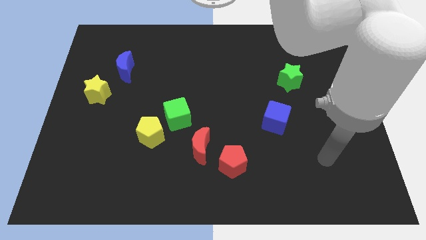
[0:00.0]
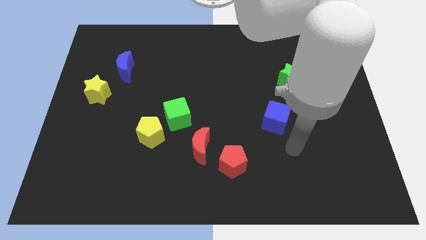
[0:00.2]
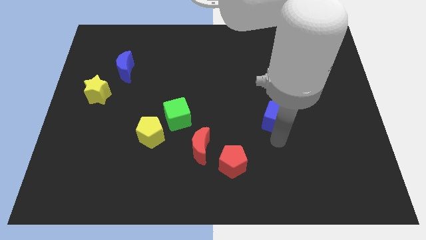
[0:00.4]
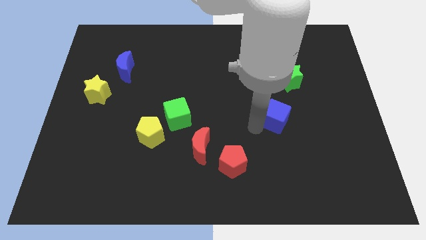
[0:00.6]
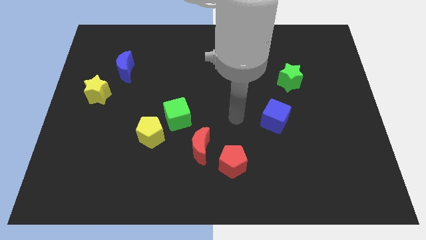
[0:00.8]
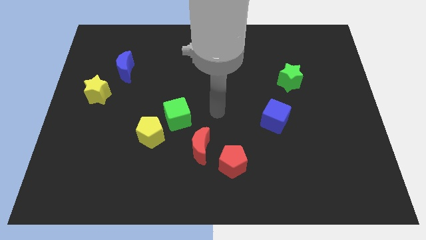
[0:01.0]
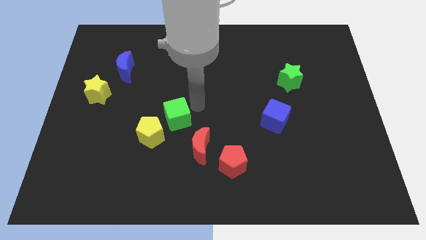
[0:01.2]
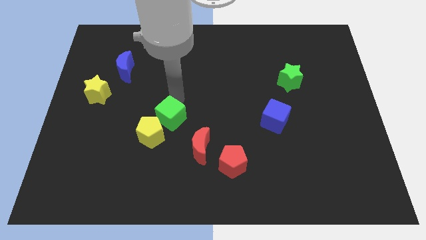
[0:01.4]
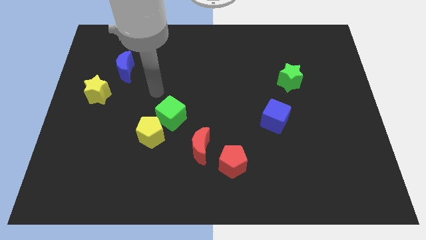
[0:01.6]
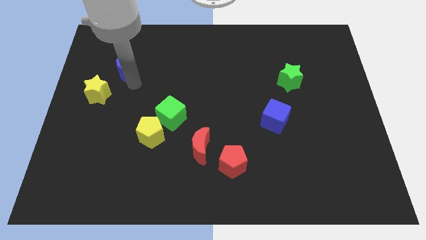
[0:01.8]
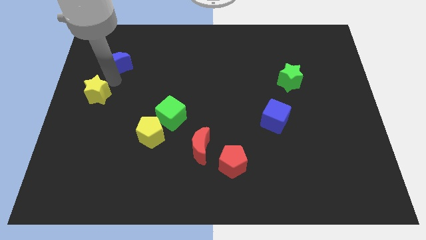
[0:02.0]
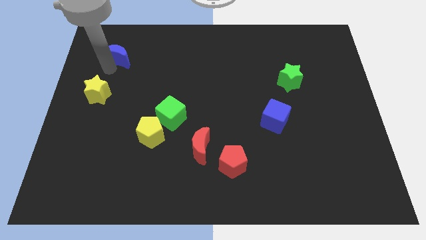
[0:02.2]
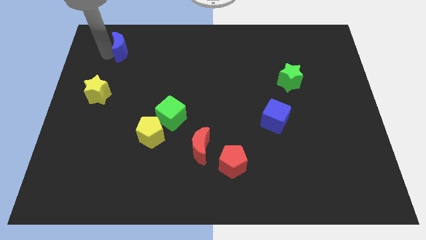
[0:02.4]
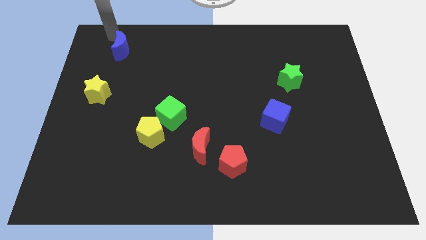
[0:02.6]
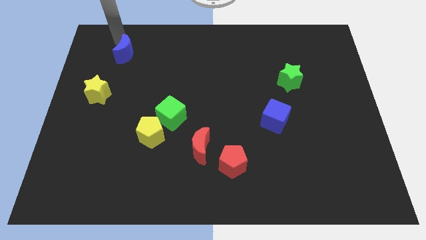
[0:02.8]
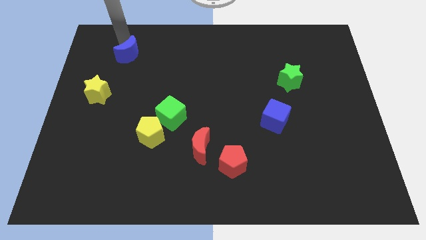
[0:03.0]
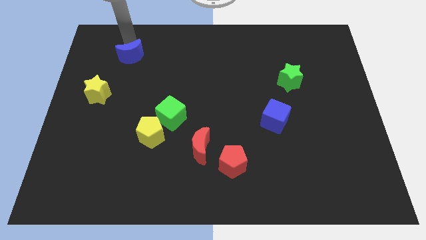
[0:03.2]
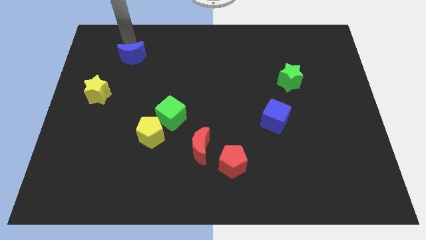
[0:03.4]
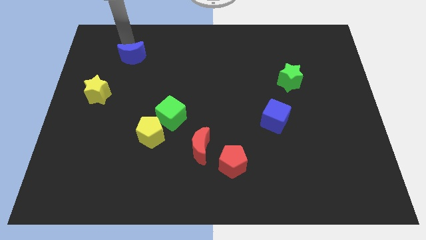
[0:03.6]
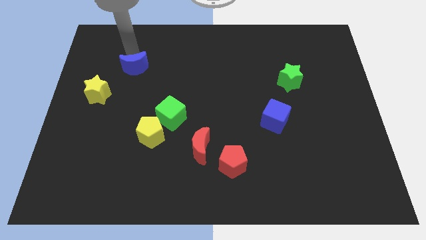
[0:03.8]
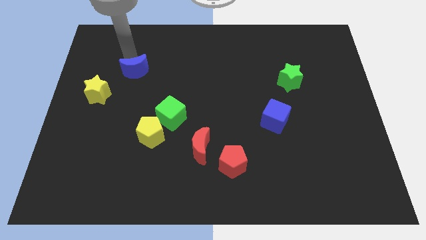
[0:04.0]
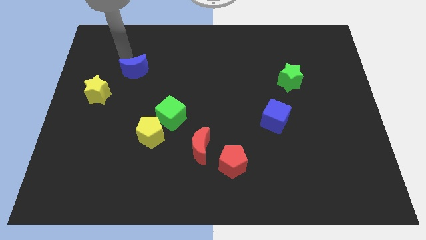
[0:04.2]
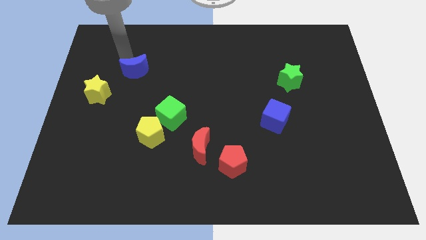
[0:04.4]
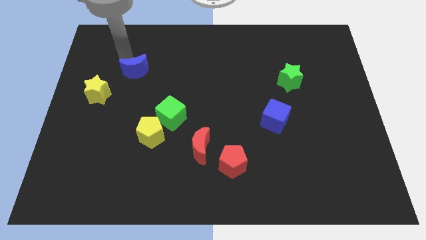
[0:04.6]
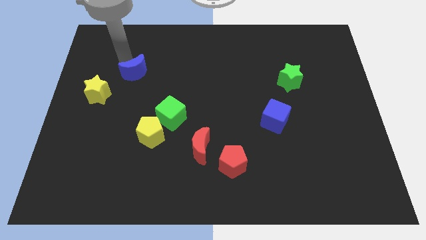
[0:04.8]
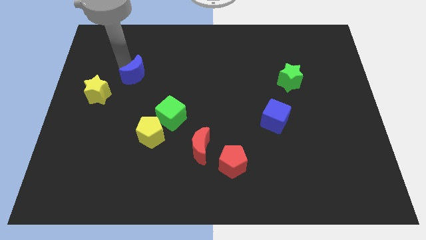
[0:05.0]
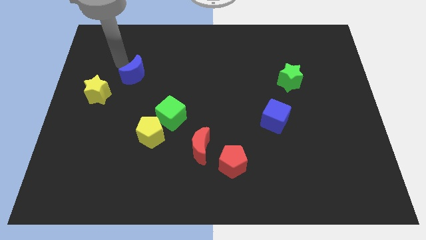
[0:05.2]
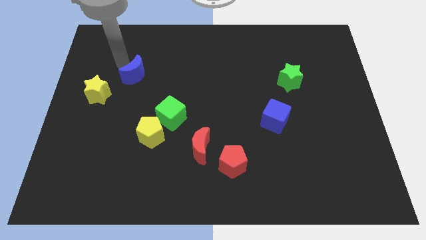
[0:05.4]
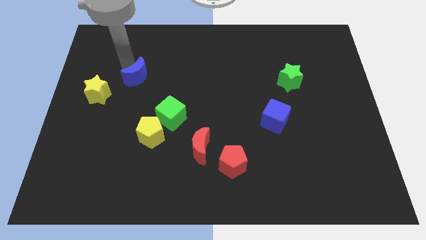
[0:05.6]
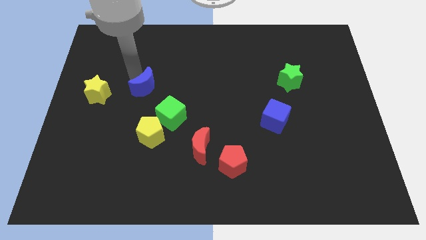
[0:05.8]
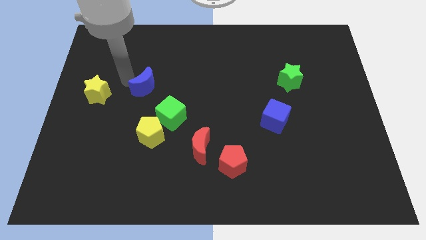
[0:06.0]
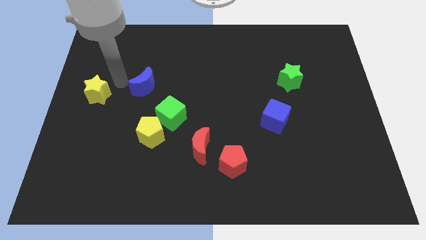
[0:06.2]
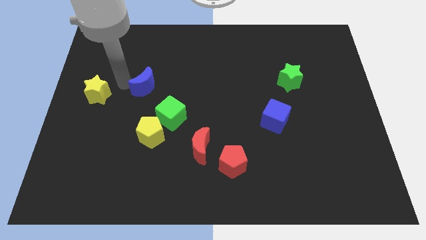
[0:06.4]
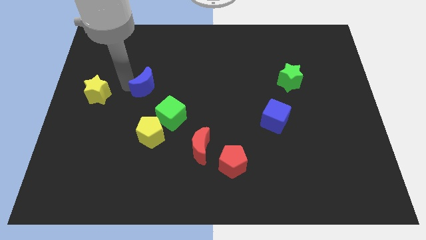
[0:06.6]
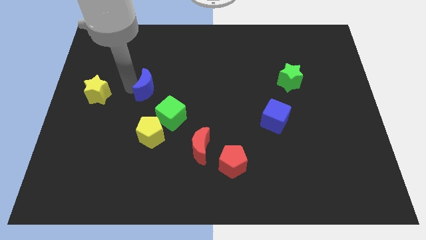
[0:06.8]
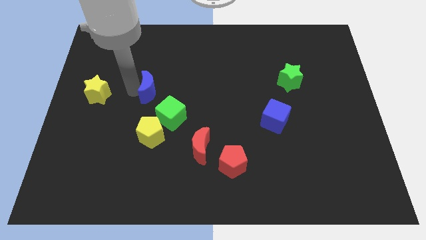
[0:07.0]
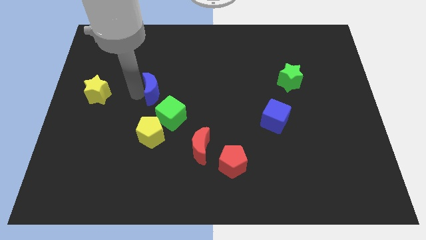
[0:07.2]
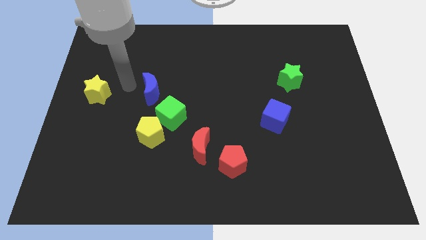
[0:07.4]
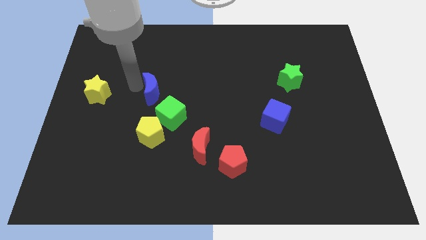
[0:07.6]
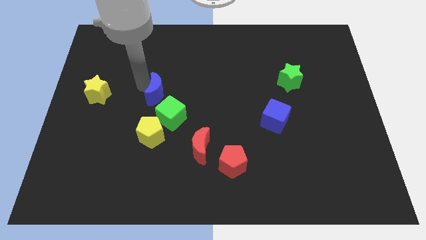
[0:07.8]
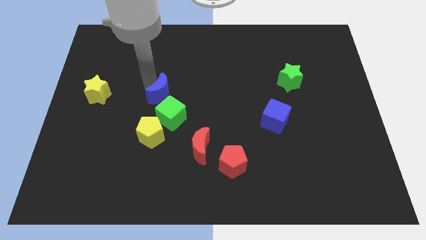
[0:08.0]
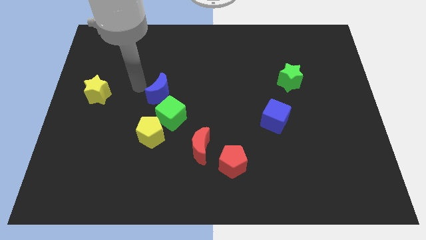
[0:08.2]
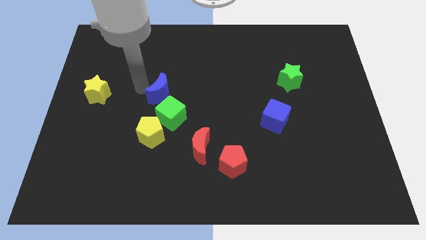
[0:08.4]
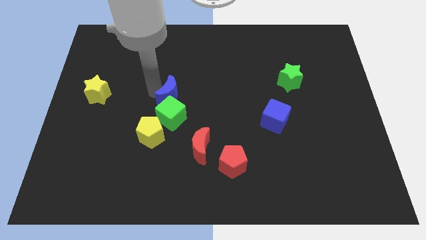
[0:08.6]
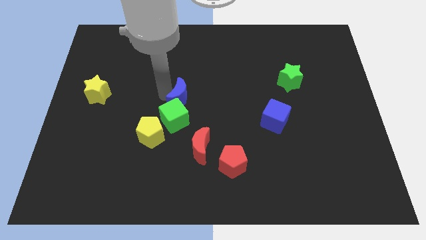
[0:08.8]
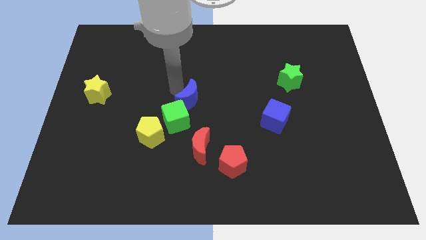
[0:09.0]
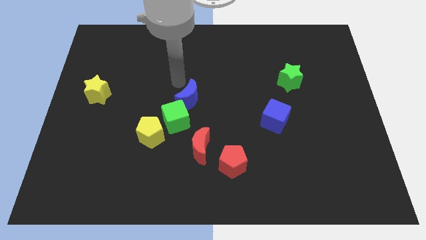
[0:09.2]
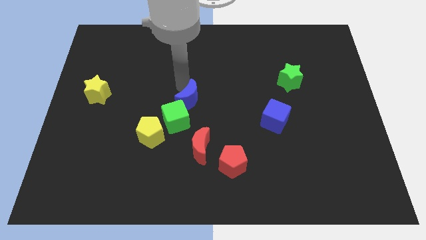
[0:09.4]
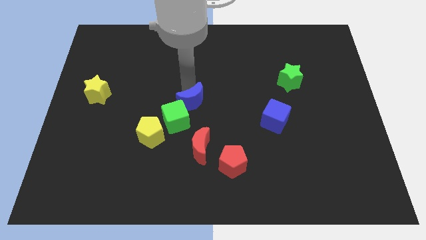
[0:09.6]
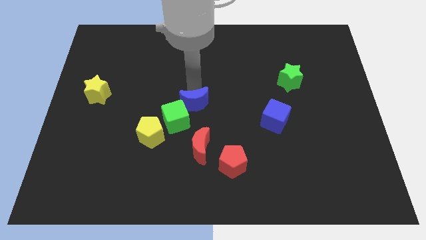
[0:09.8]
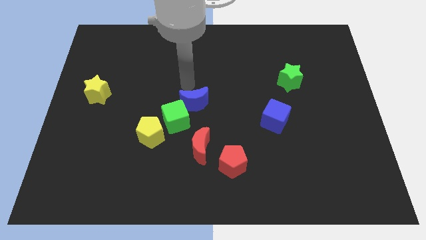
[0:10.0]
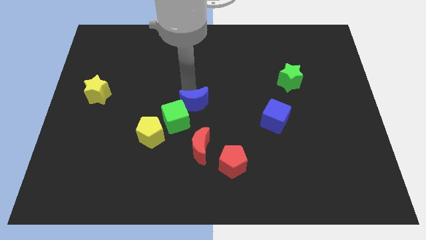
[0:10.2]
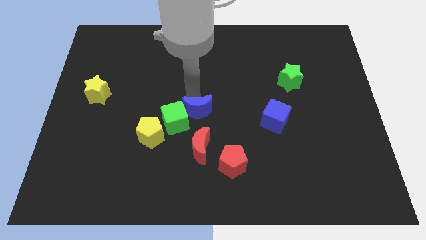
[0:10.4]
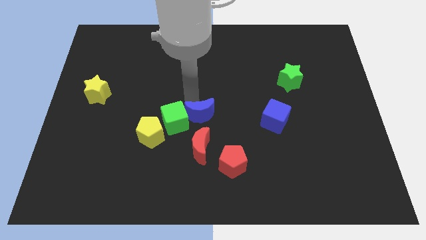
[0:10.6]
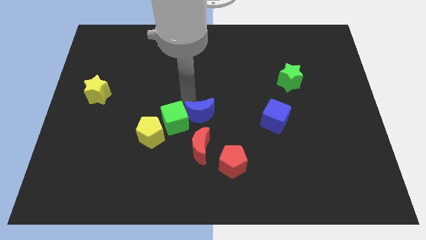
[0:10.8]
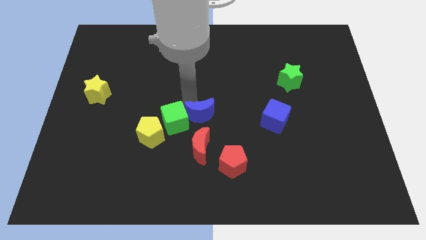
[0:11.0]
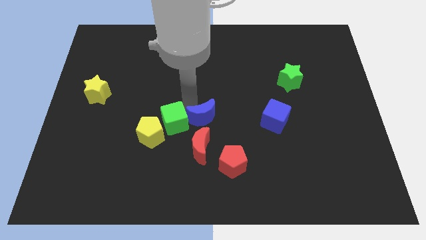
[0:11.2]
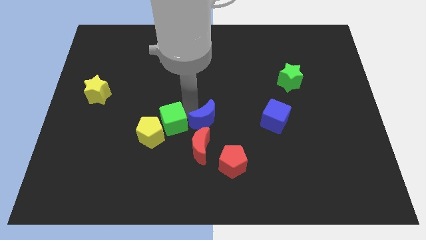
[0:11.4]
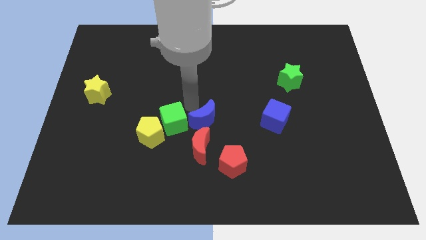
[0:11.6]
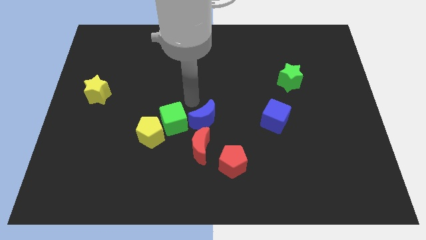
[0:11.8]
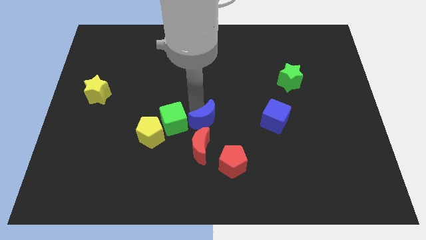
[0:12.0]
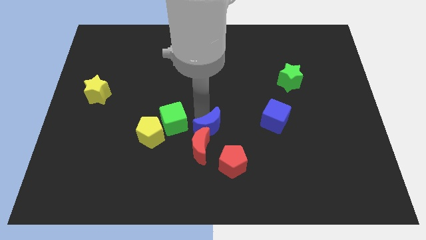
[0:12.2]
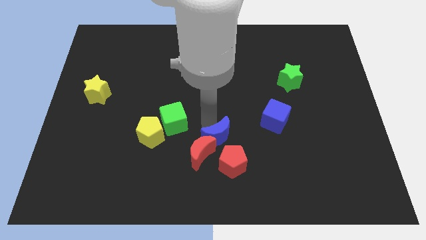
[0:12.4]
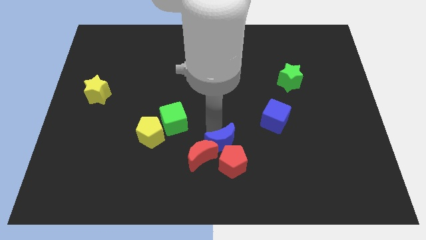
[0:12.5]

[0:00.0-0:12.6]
put the blue moon to the red pentagon
